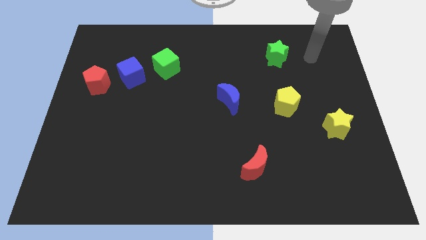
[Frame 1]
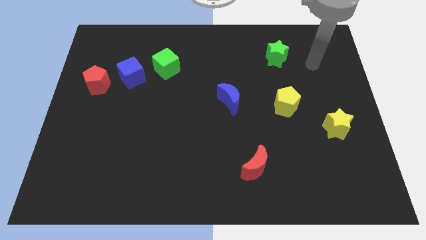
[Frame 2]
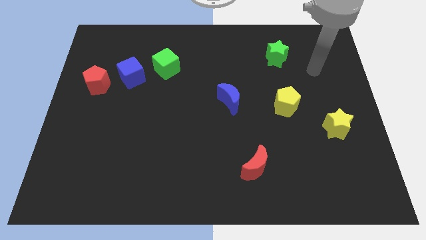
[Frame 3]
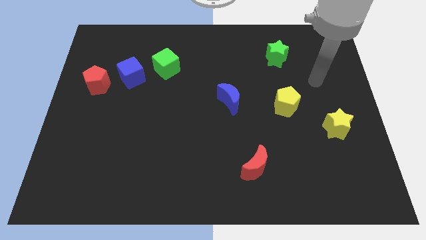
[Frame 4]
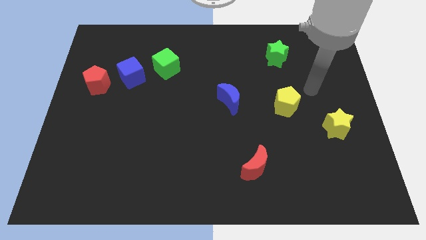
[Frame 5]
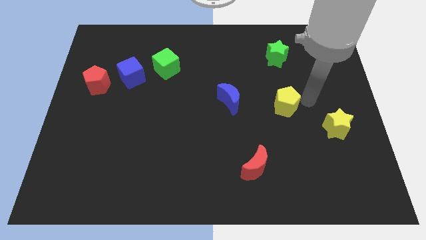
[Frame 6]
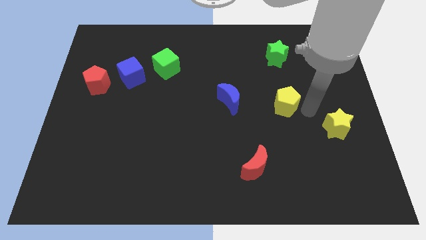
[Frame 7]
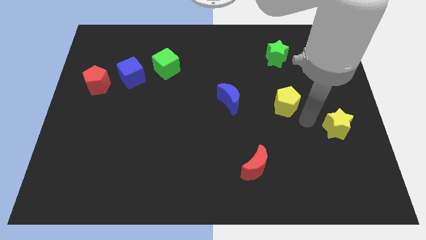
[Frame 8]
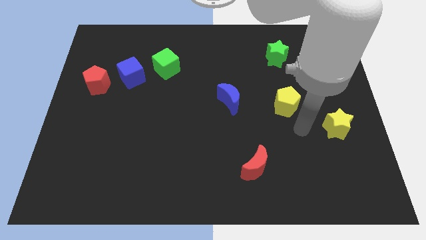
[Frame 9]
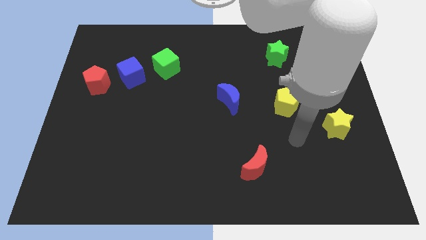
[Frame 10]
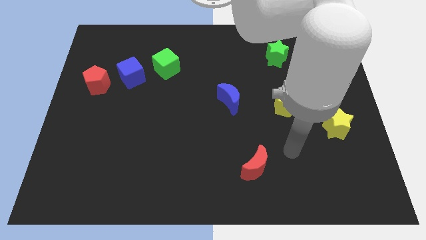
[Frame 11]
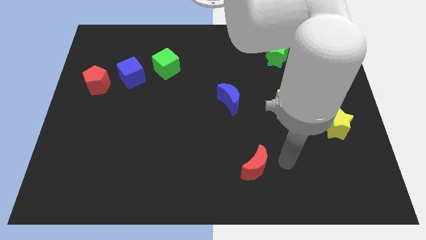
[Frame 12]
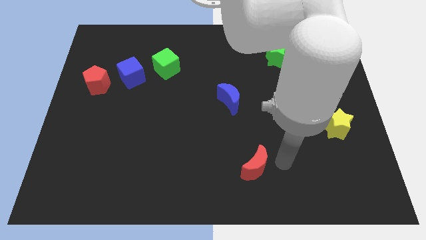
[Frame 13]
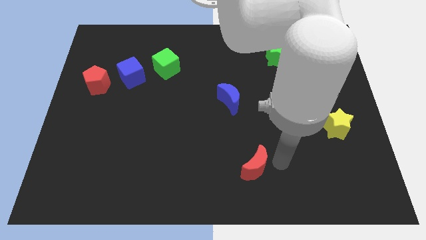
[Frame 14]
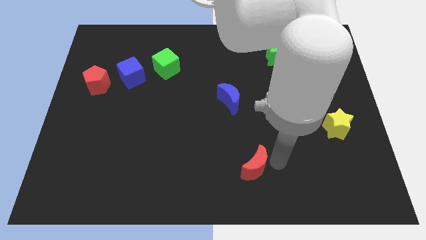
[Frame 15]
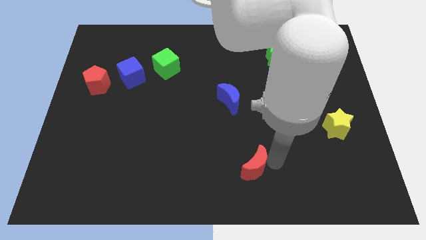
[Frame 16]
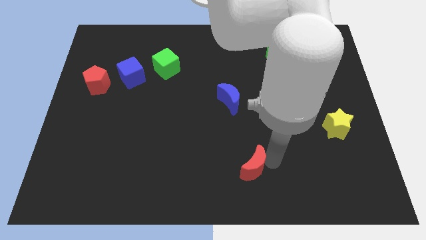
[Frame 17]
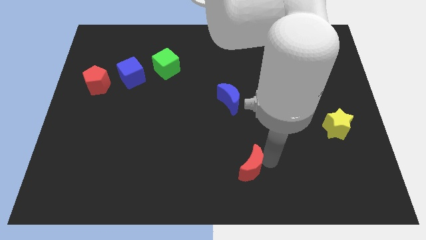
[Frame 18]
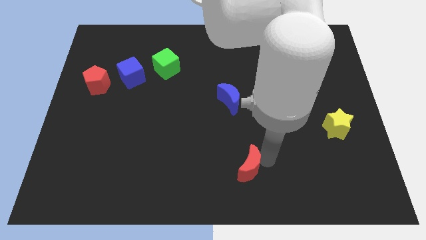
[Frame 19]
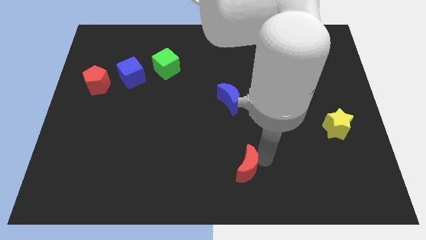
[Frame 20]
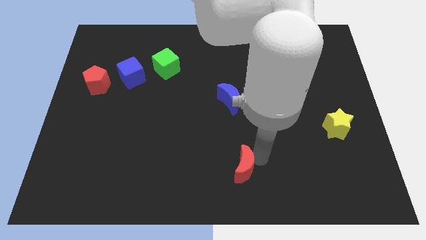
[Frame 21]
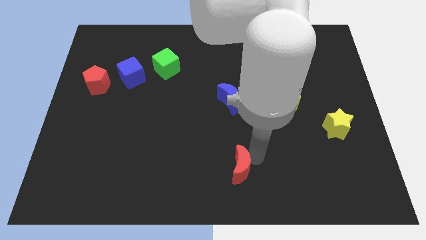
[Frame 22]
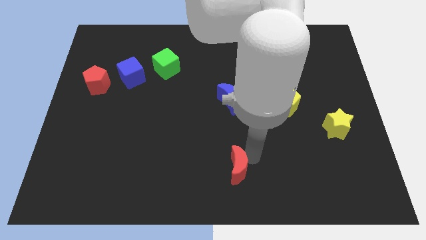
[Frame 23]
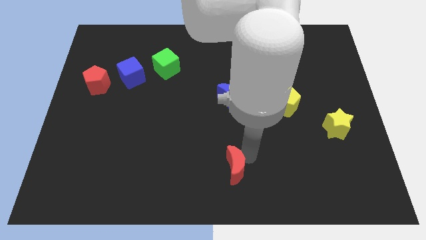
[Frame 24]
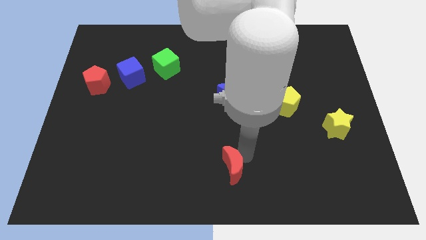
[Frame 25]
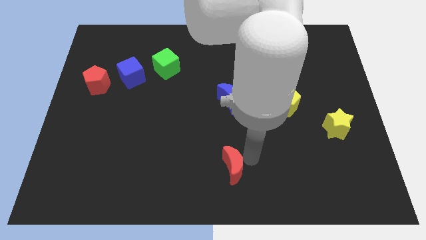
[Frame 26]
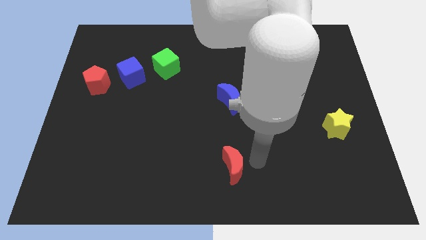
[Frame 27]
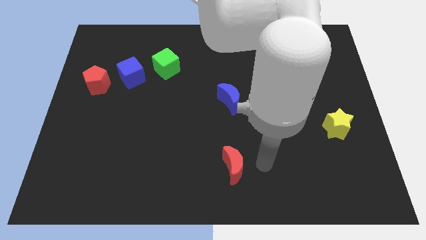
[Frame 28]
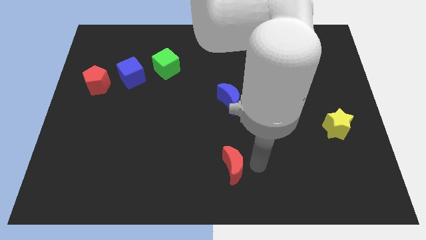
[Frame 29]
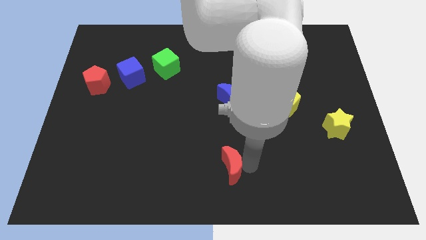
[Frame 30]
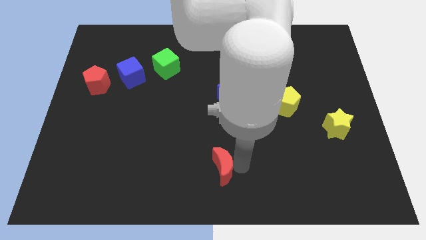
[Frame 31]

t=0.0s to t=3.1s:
slightly slide the red moon left

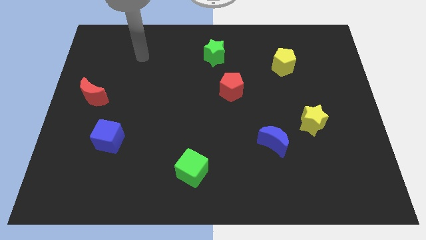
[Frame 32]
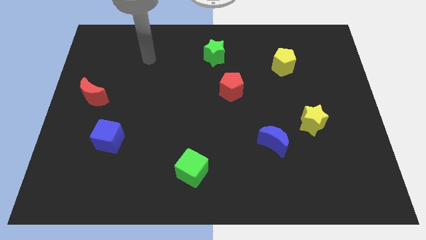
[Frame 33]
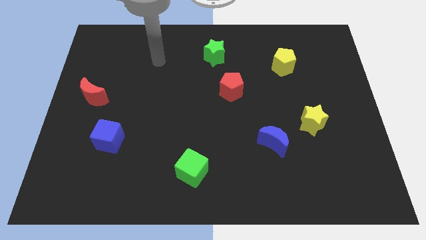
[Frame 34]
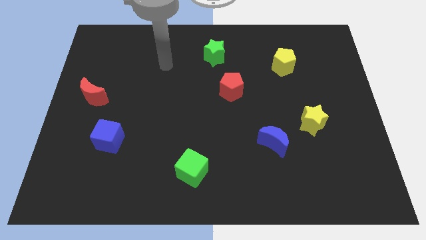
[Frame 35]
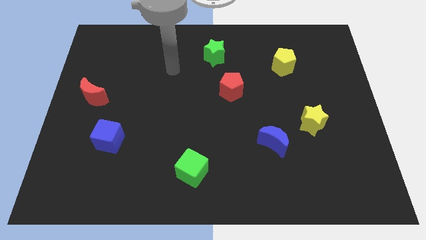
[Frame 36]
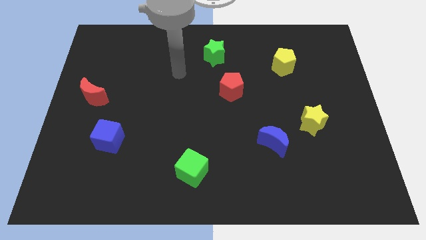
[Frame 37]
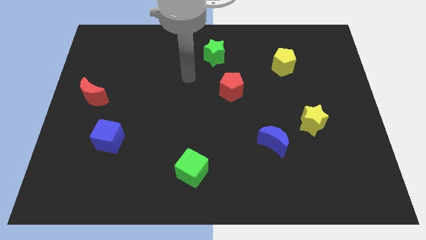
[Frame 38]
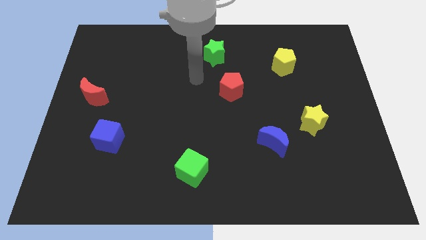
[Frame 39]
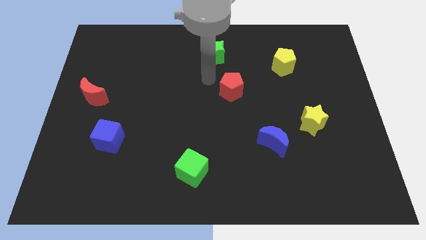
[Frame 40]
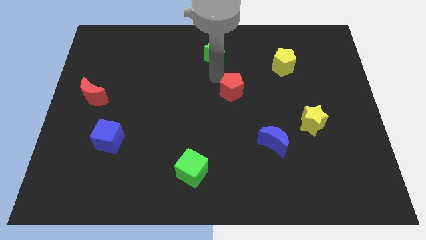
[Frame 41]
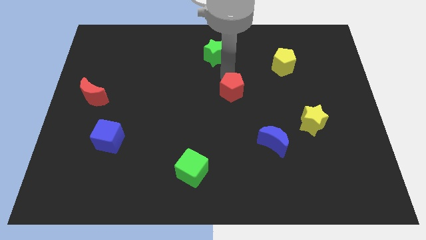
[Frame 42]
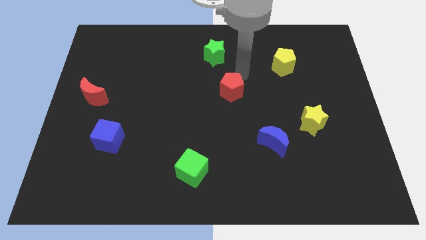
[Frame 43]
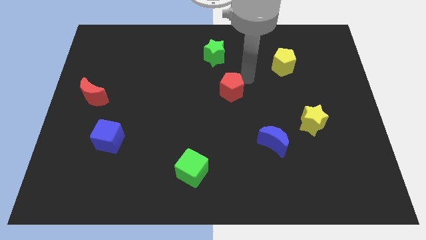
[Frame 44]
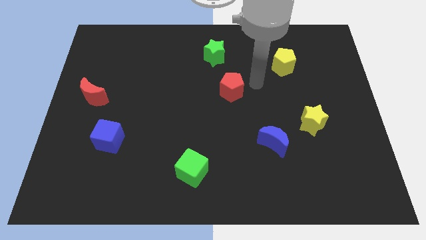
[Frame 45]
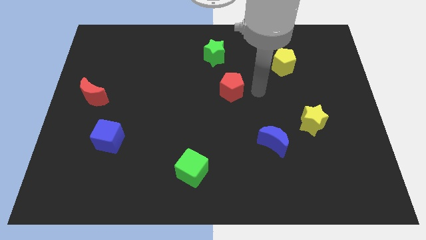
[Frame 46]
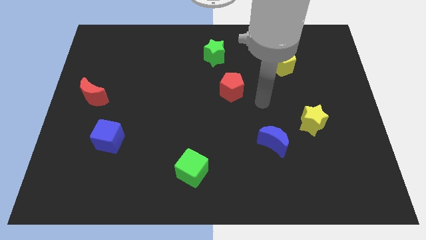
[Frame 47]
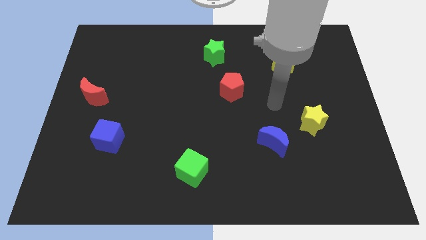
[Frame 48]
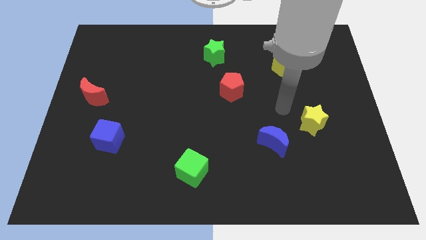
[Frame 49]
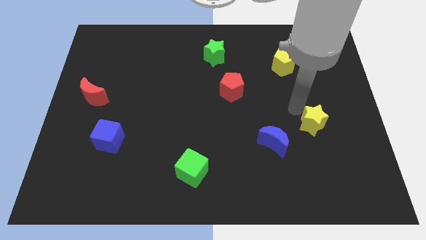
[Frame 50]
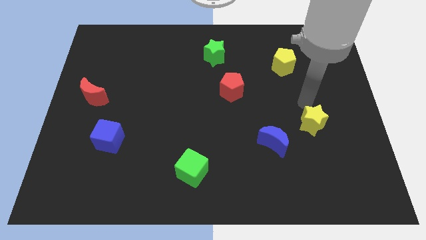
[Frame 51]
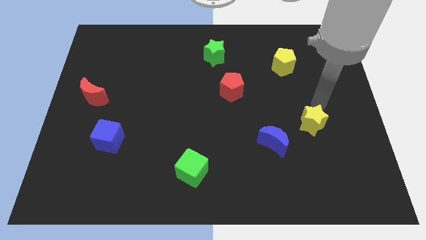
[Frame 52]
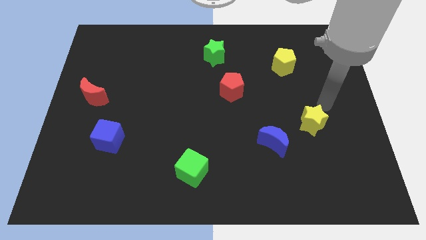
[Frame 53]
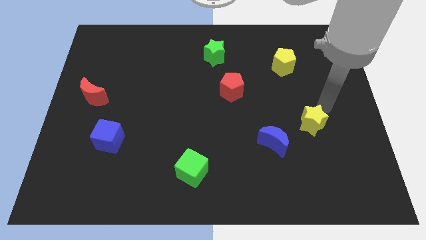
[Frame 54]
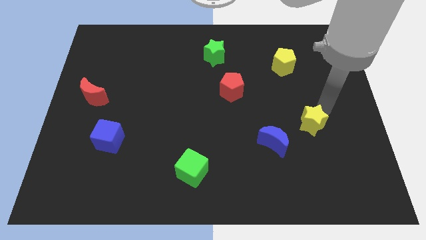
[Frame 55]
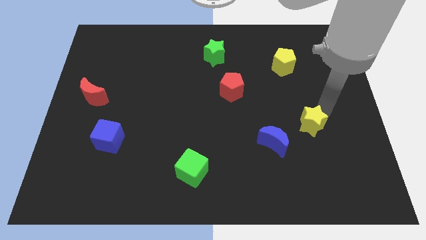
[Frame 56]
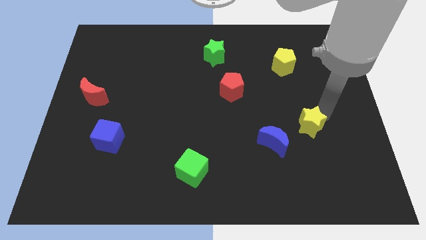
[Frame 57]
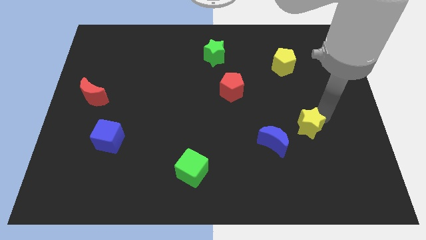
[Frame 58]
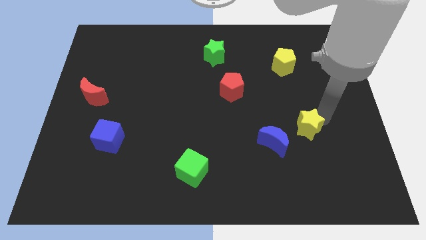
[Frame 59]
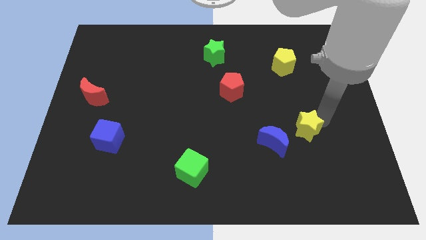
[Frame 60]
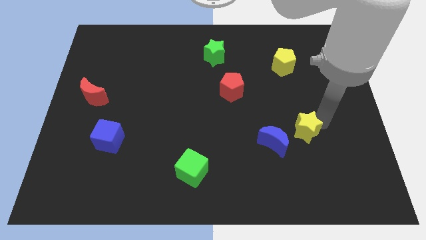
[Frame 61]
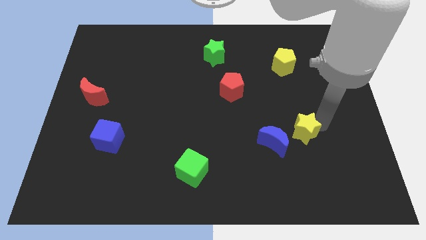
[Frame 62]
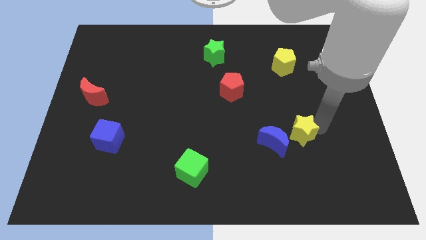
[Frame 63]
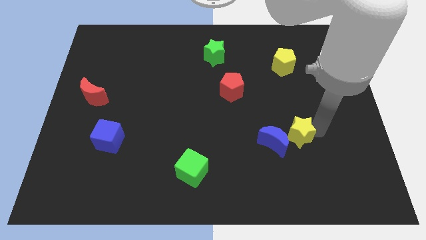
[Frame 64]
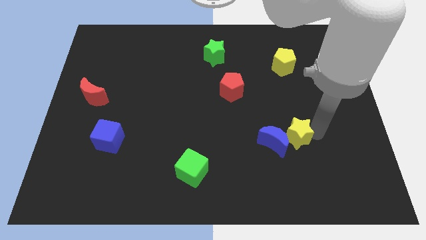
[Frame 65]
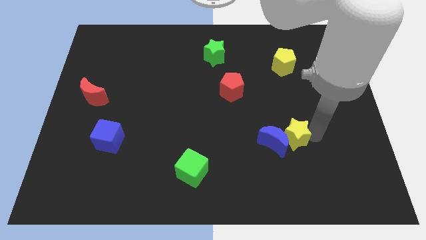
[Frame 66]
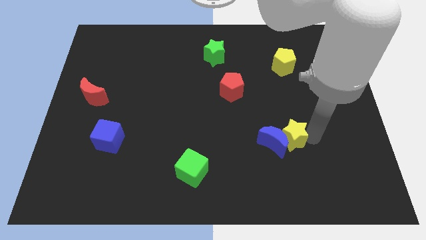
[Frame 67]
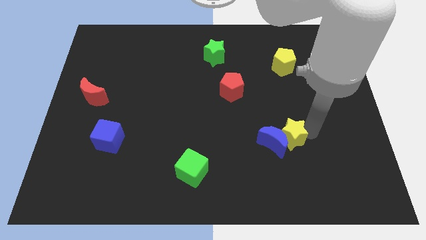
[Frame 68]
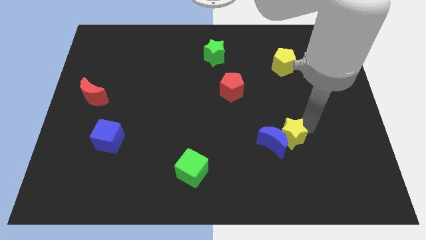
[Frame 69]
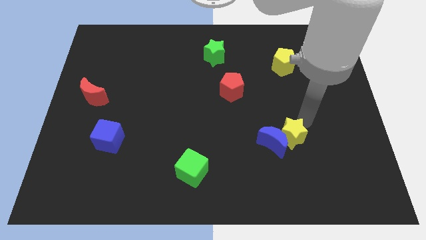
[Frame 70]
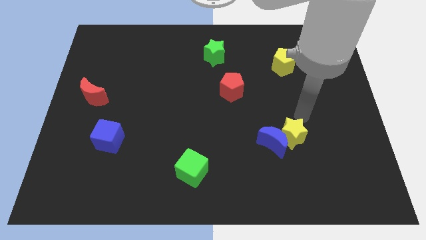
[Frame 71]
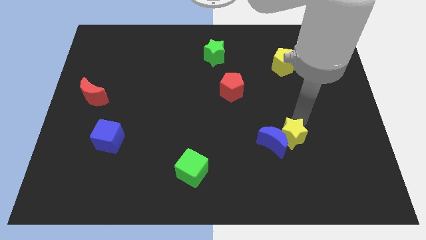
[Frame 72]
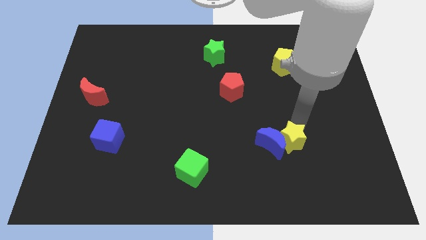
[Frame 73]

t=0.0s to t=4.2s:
slightly push the yellow star downwards and to the left

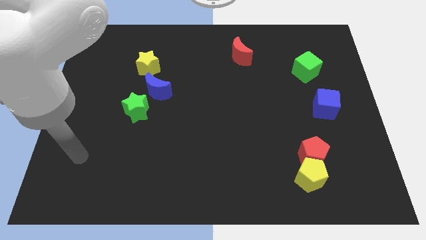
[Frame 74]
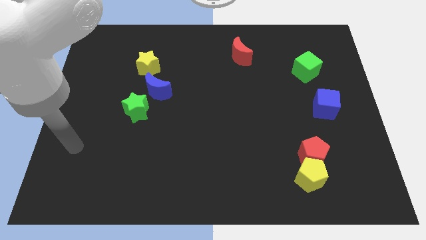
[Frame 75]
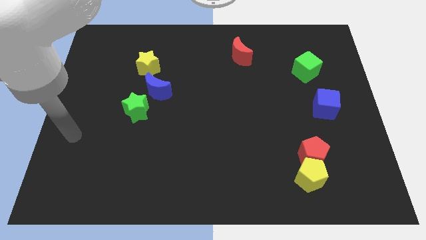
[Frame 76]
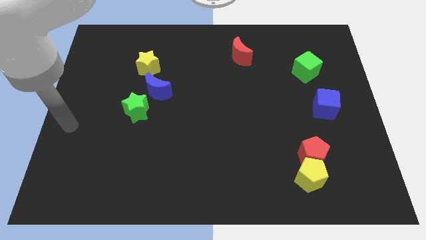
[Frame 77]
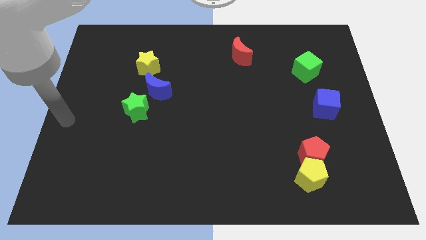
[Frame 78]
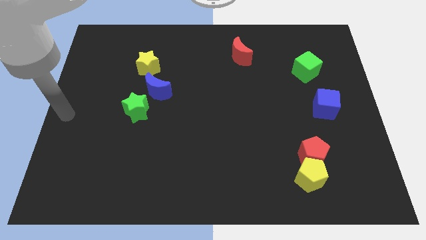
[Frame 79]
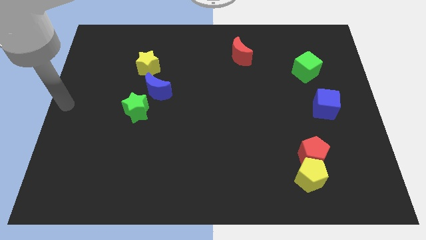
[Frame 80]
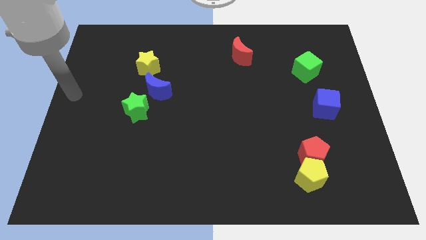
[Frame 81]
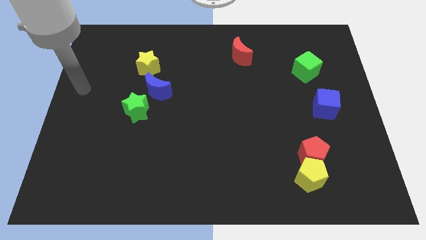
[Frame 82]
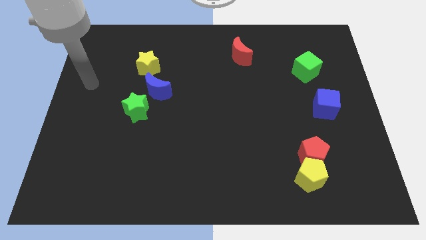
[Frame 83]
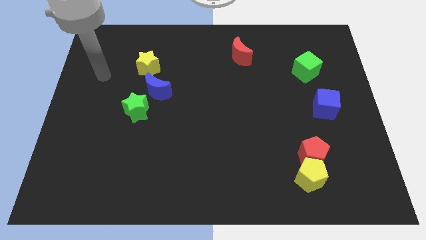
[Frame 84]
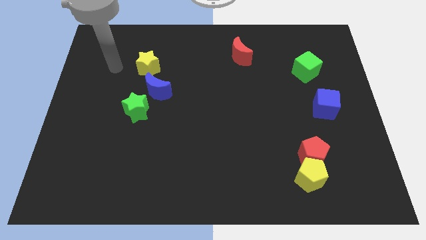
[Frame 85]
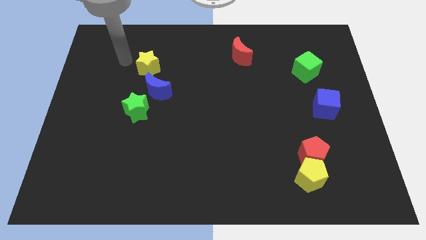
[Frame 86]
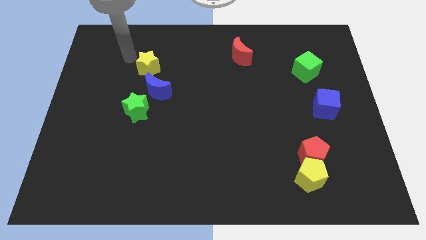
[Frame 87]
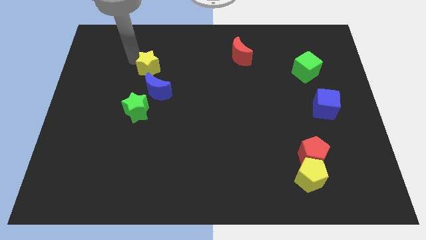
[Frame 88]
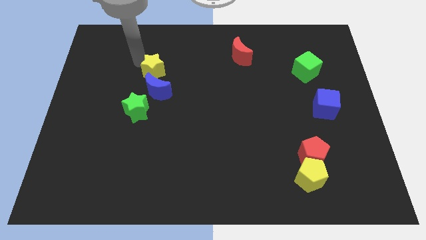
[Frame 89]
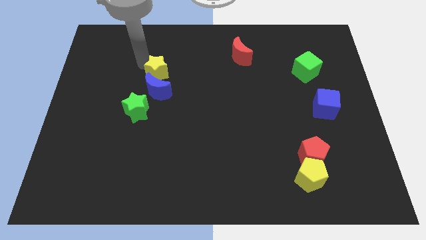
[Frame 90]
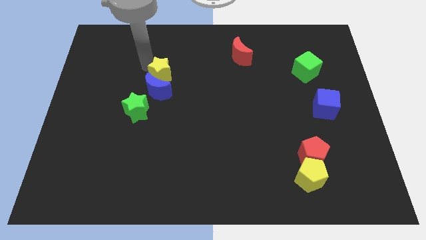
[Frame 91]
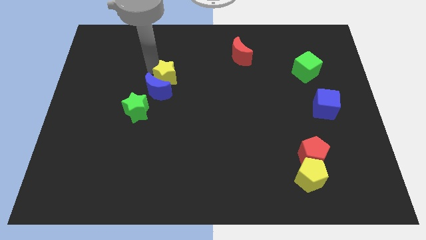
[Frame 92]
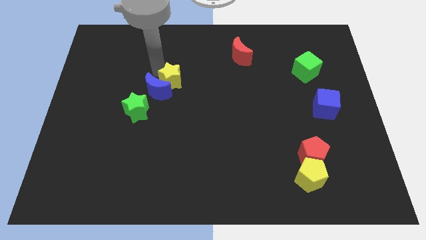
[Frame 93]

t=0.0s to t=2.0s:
move the yellow star downwards and to the right diagonally a little bit
